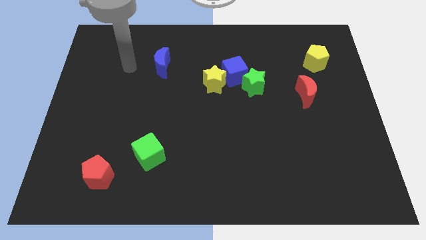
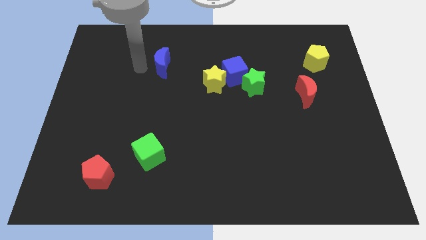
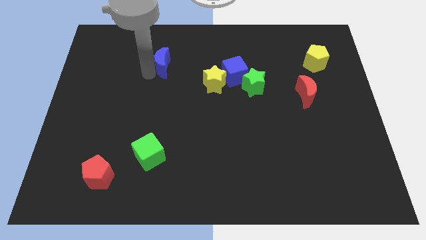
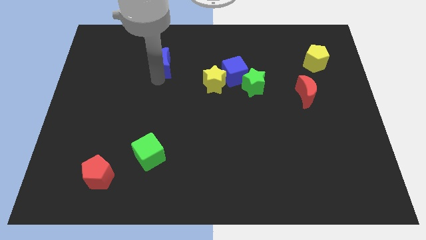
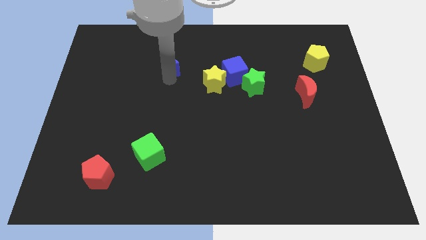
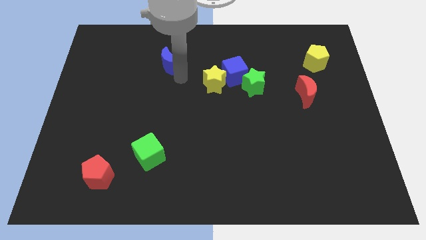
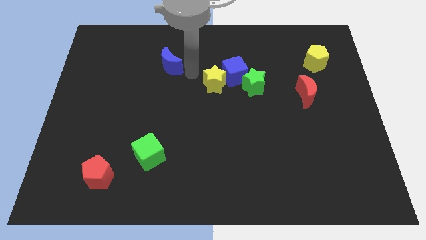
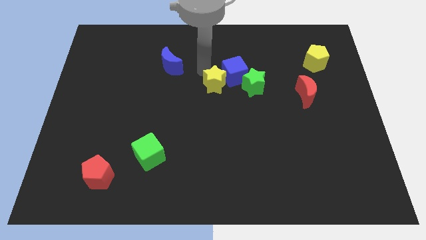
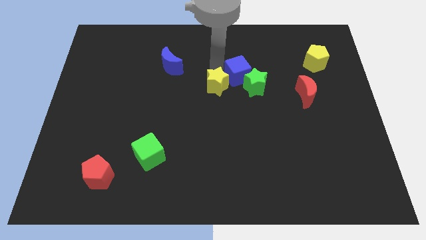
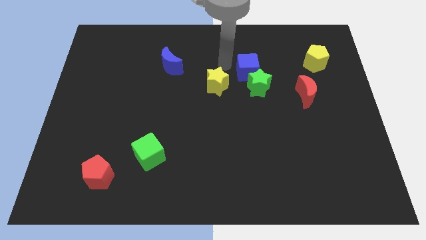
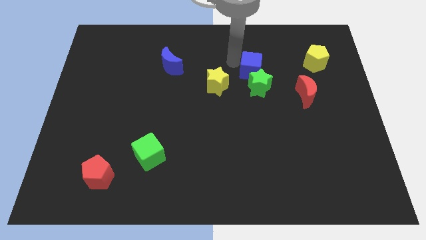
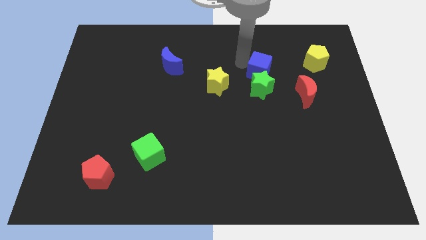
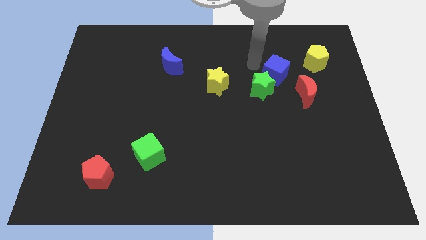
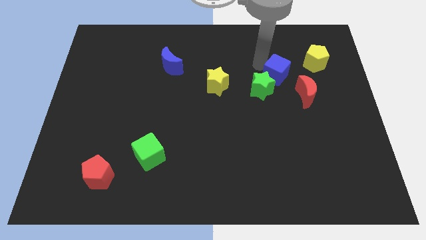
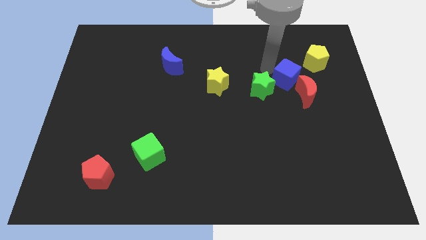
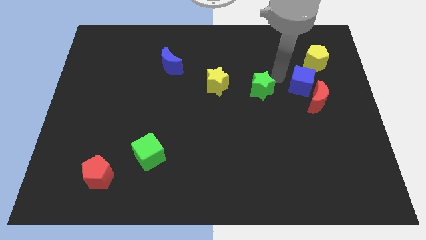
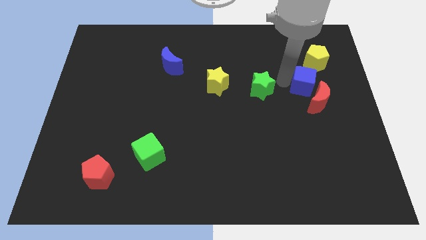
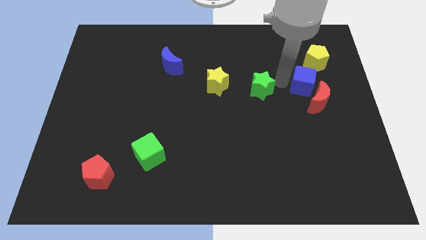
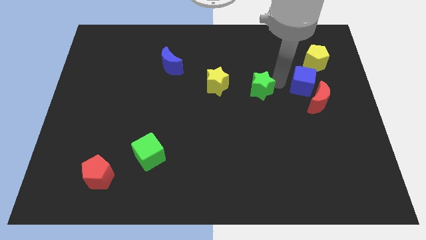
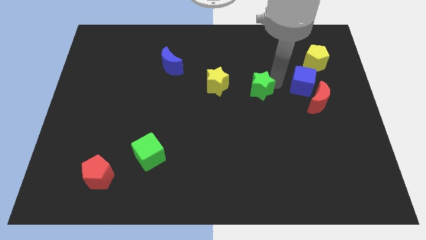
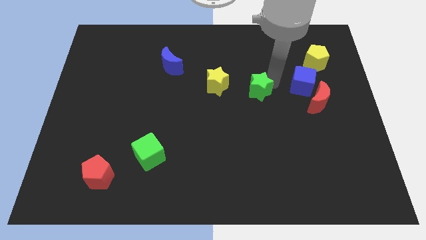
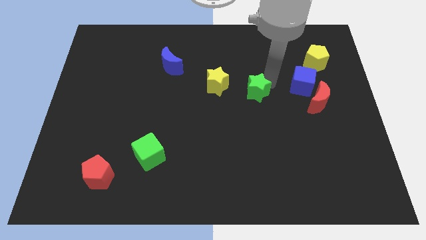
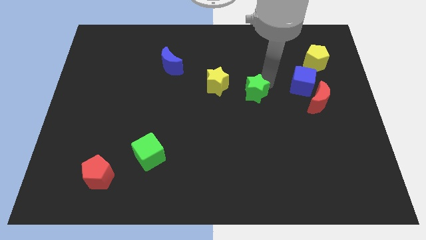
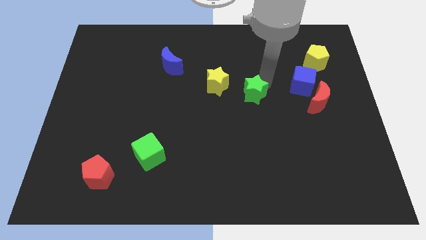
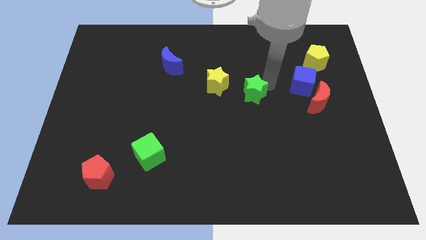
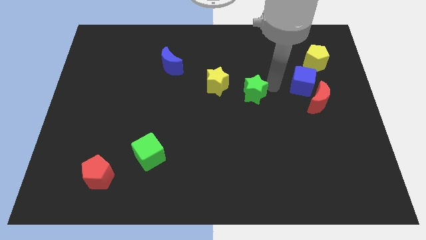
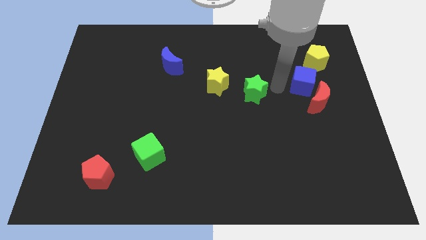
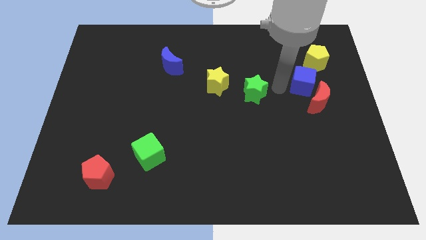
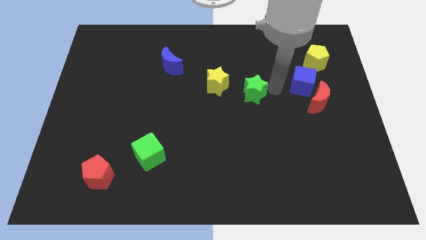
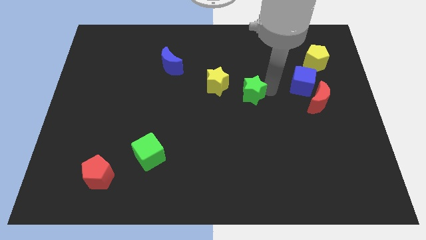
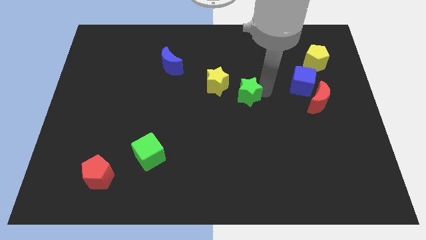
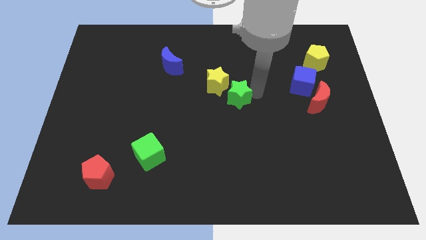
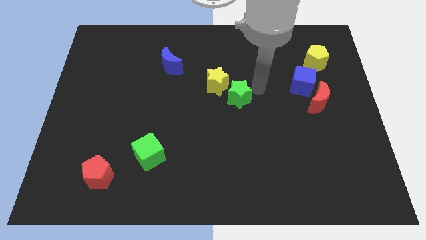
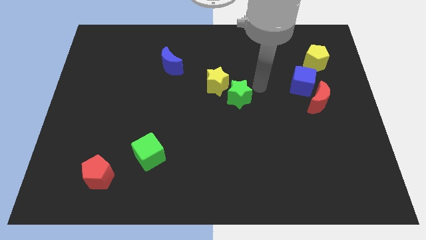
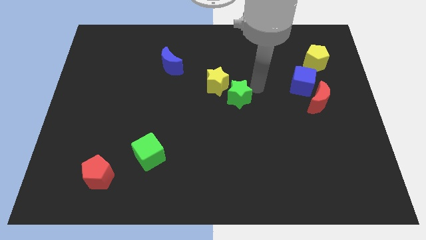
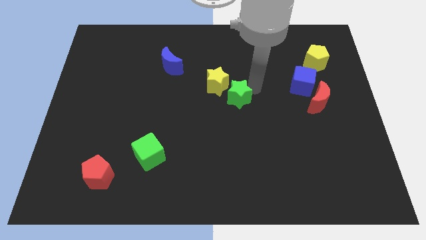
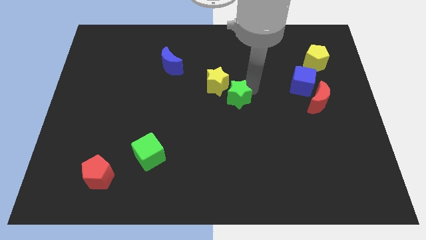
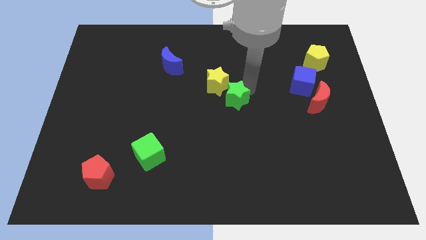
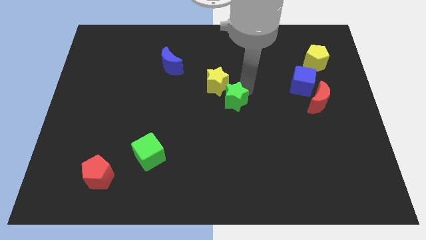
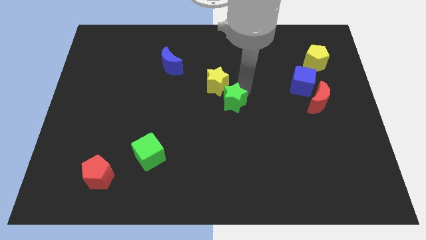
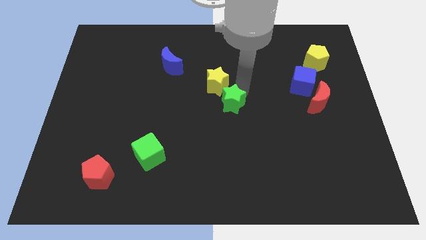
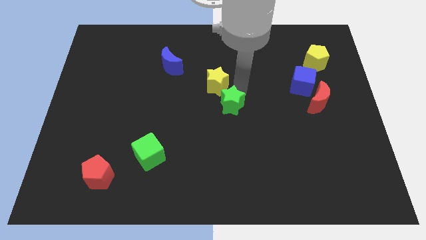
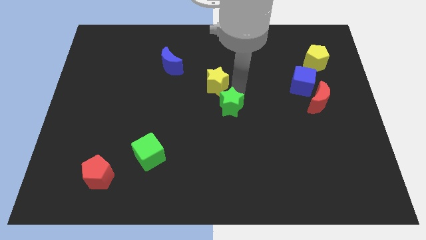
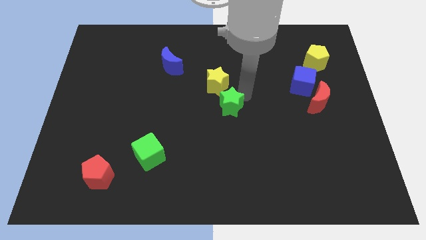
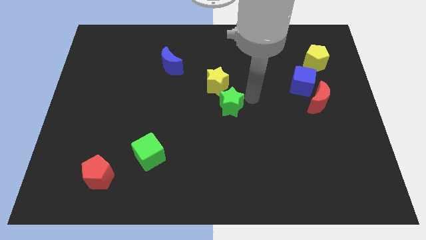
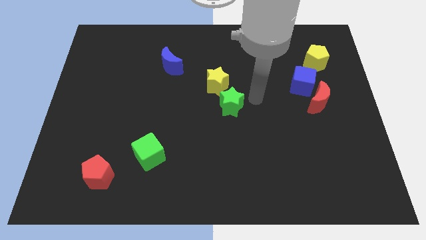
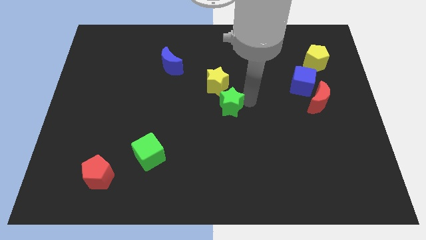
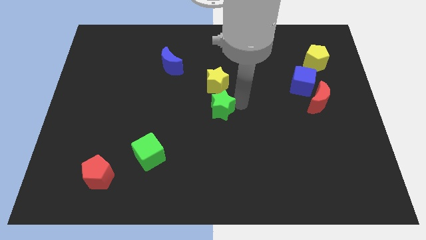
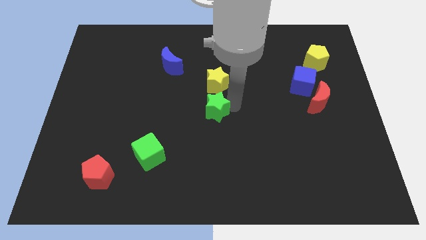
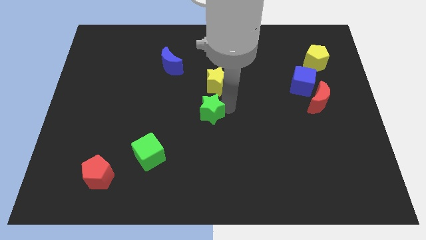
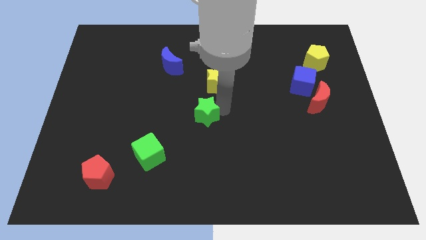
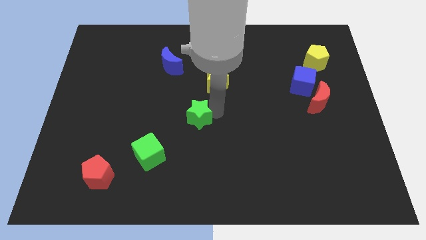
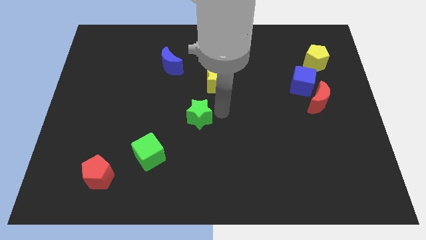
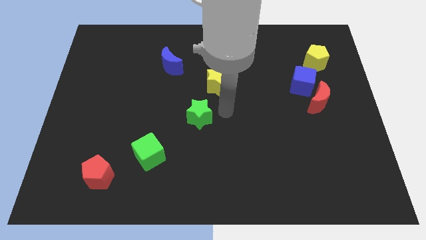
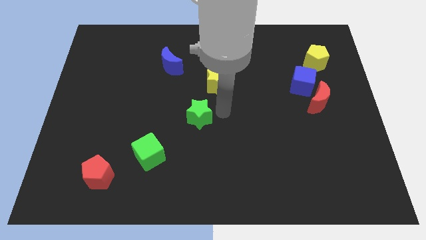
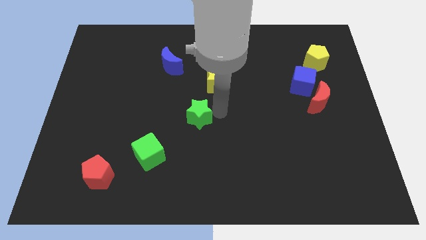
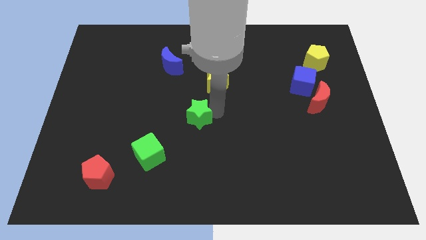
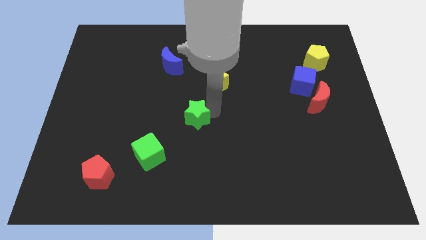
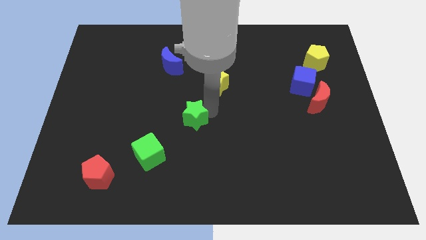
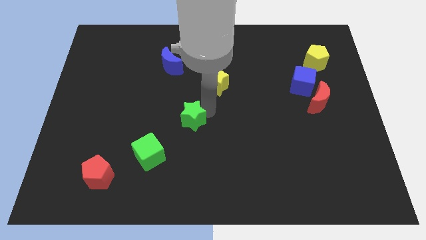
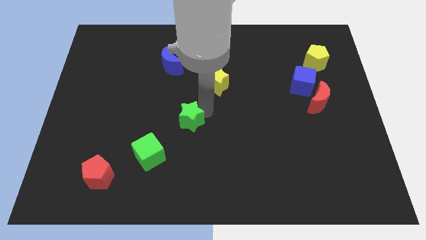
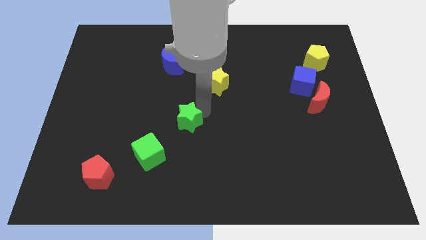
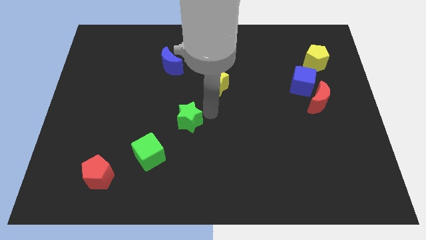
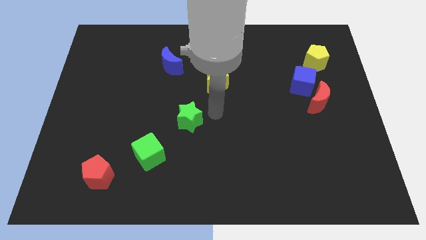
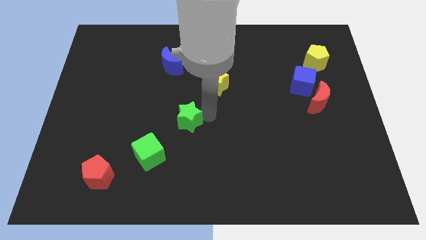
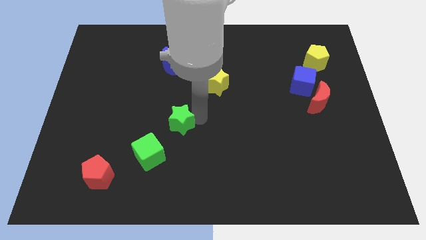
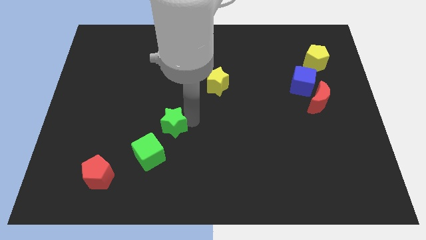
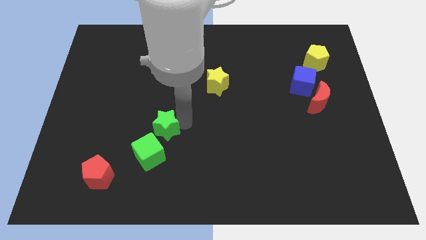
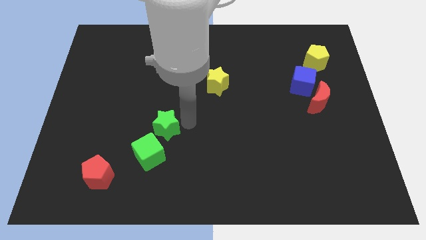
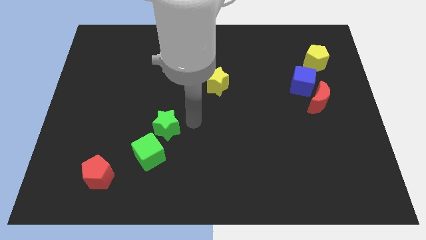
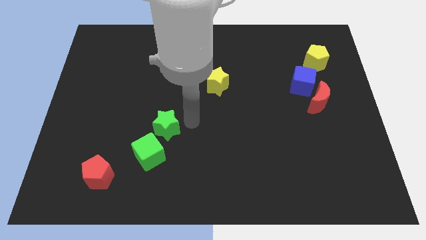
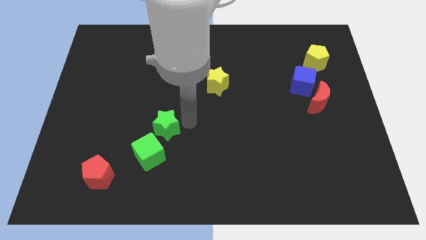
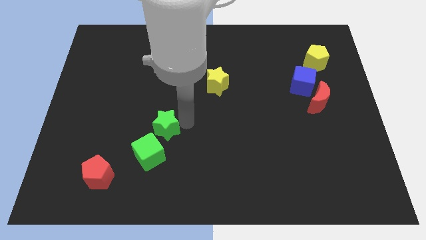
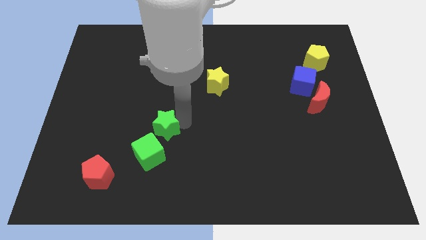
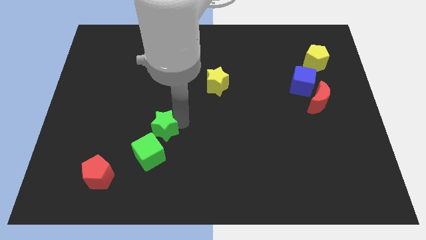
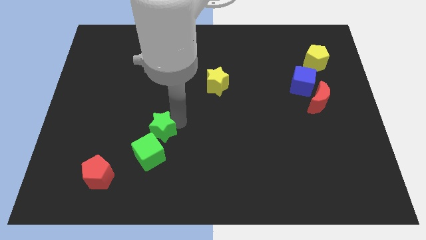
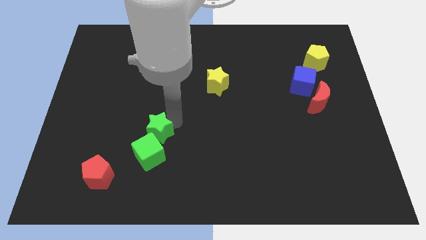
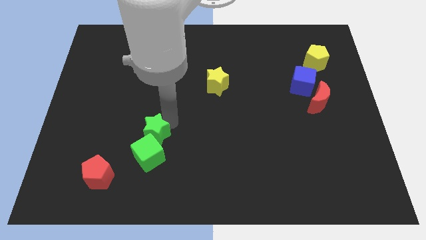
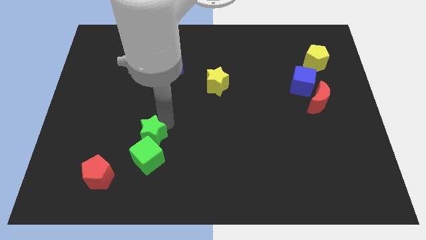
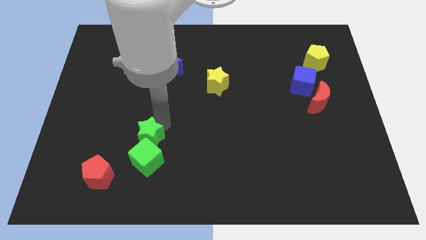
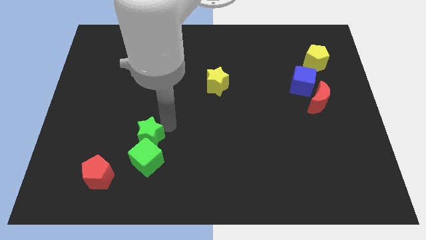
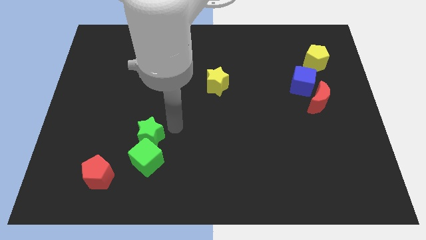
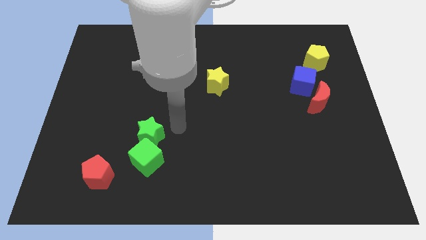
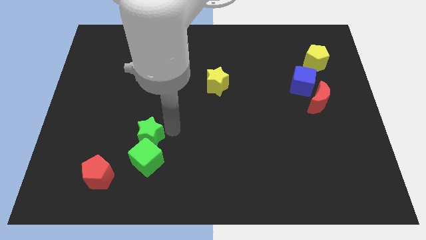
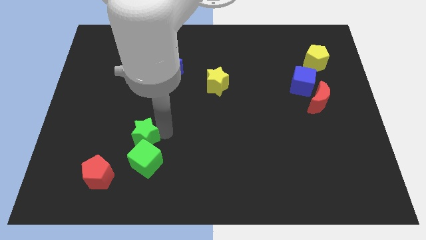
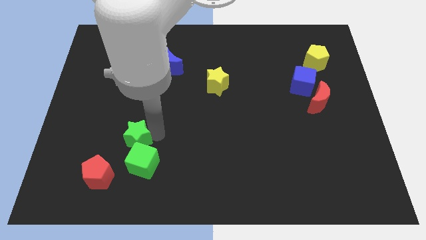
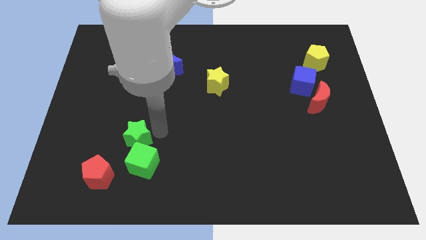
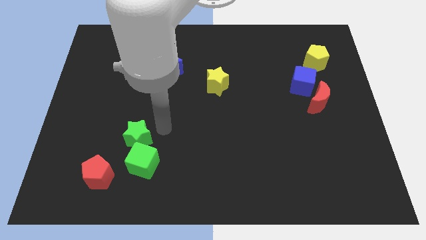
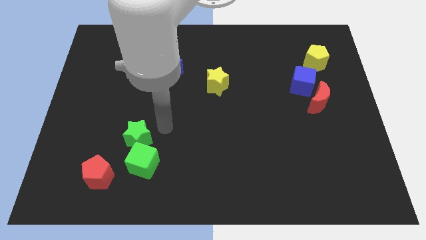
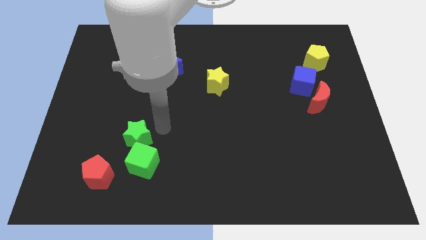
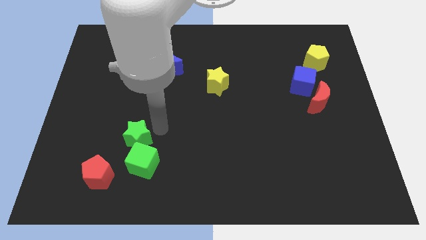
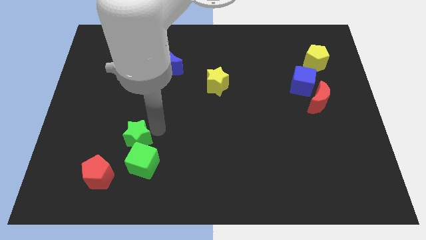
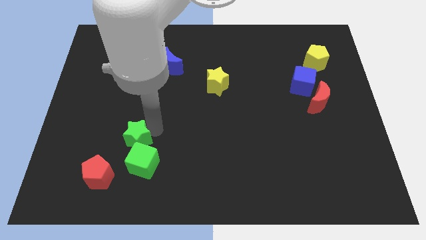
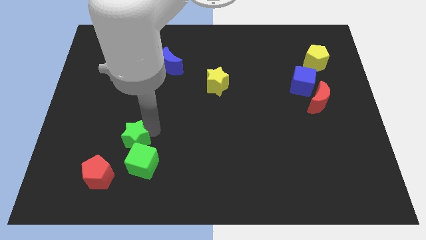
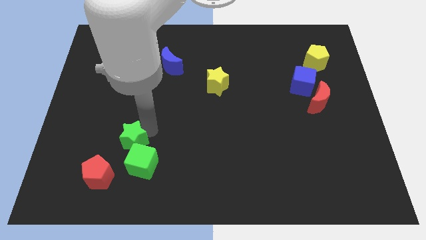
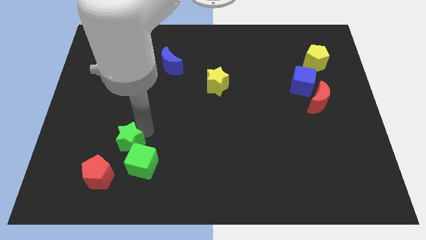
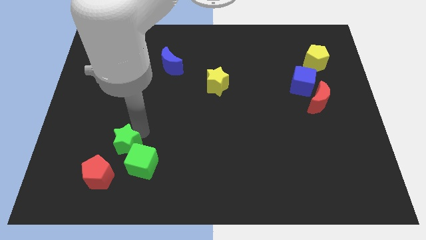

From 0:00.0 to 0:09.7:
slide the green star to the left of the green cube
